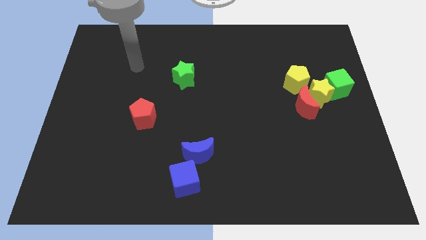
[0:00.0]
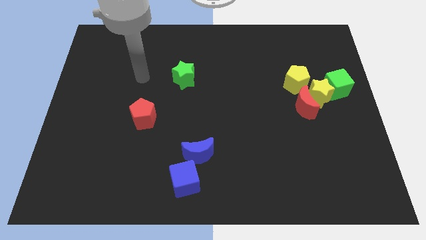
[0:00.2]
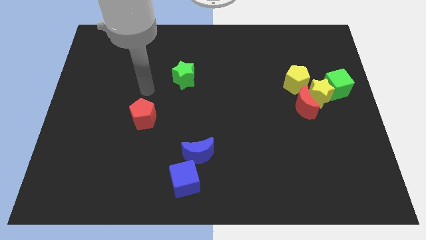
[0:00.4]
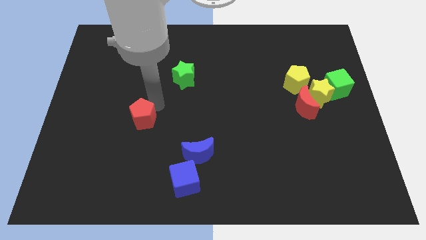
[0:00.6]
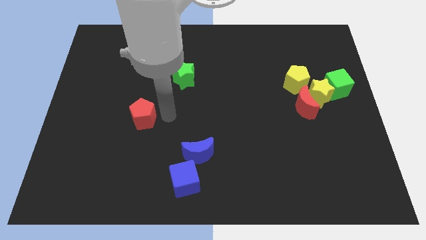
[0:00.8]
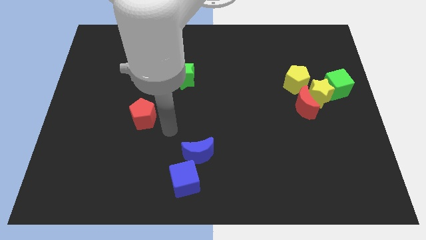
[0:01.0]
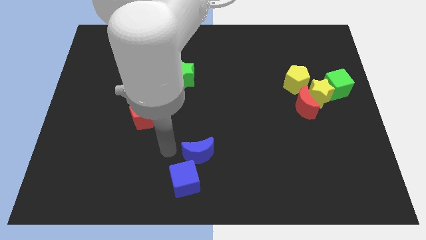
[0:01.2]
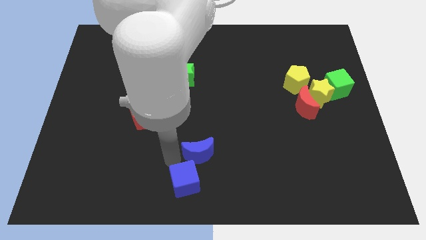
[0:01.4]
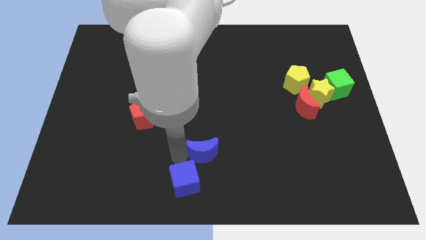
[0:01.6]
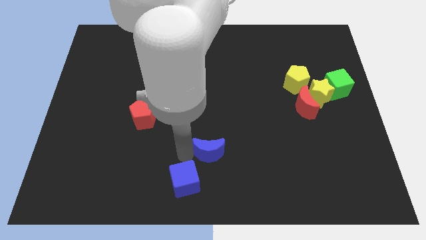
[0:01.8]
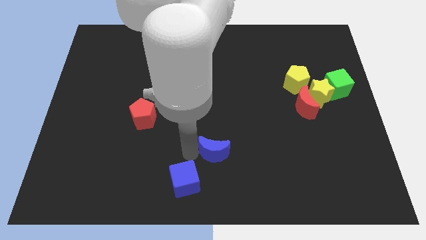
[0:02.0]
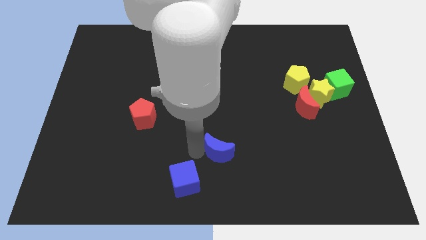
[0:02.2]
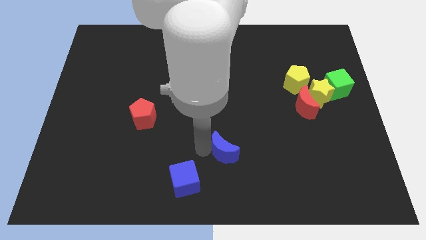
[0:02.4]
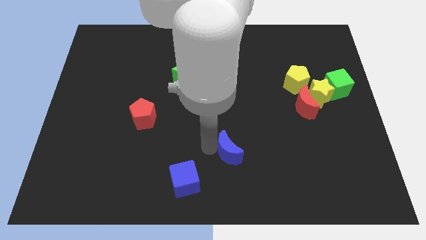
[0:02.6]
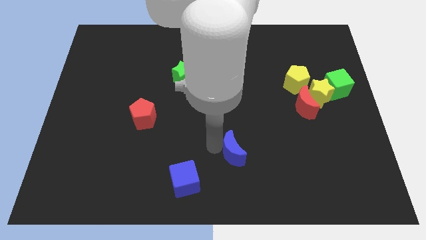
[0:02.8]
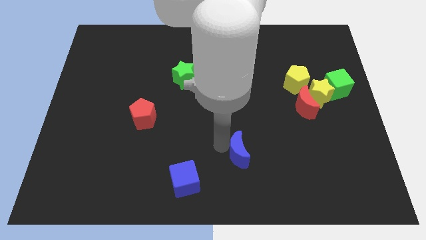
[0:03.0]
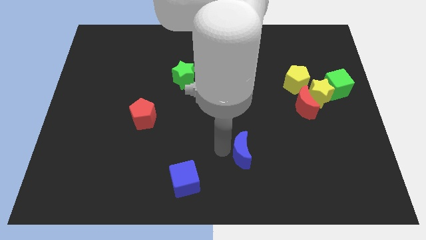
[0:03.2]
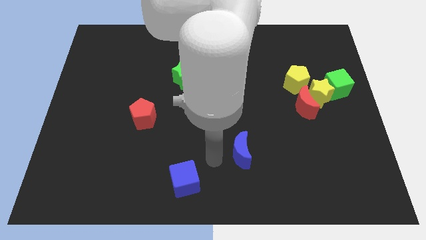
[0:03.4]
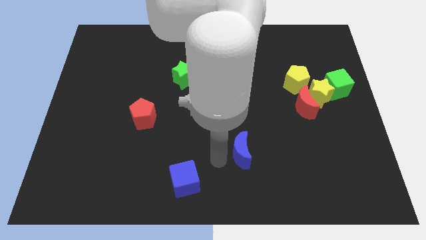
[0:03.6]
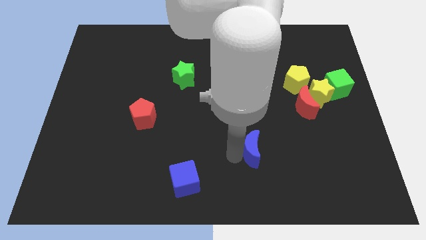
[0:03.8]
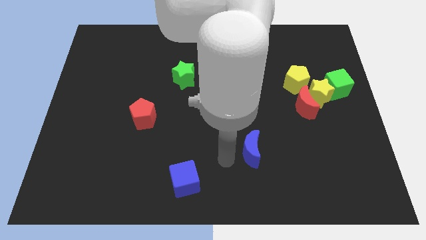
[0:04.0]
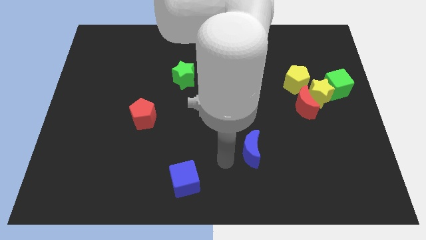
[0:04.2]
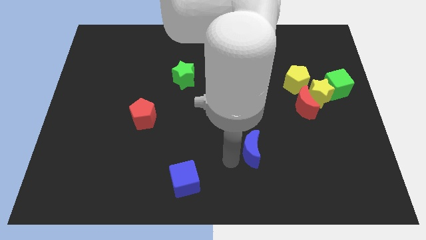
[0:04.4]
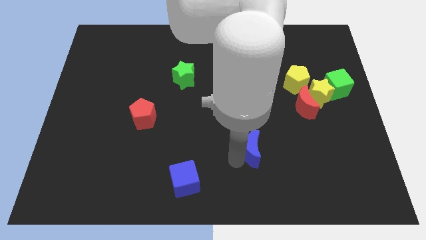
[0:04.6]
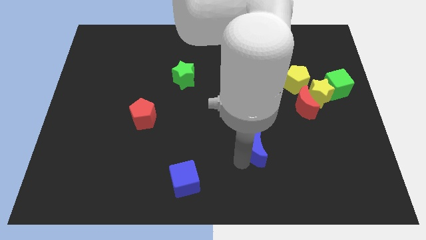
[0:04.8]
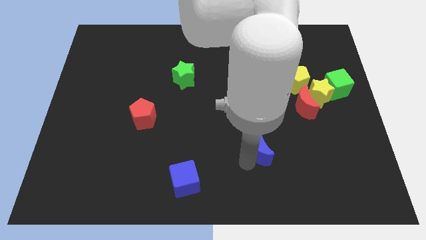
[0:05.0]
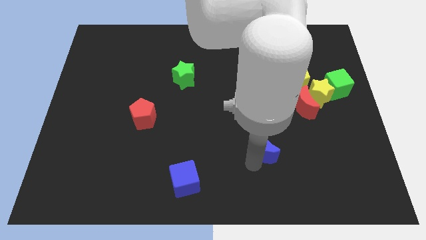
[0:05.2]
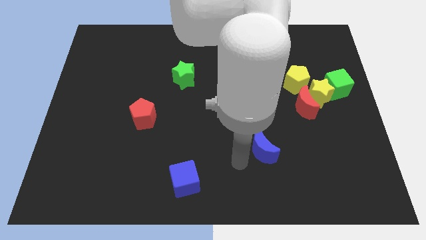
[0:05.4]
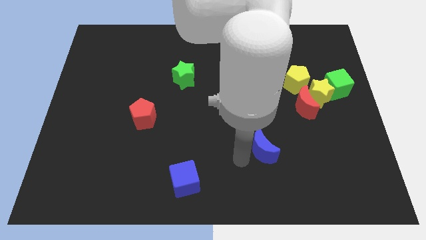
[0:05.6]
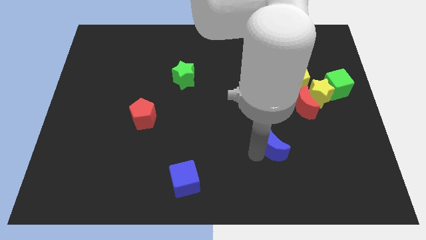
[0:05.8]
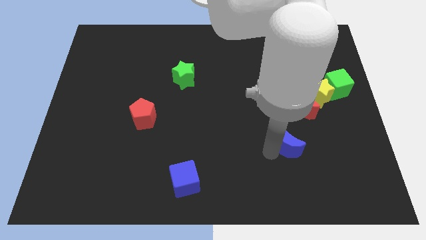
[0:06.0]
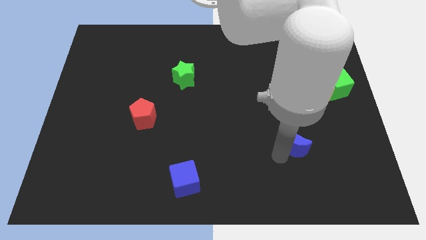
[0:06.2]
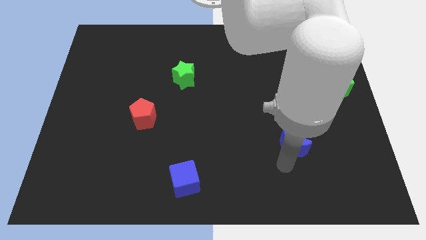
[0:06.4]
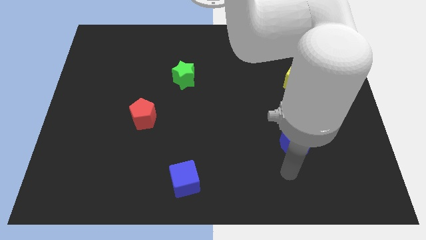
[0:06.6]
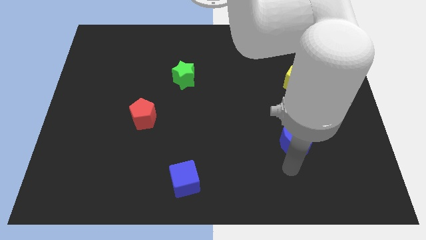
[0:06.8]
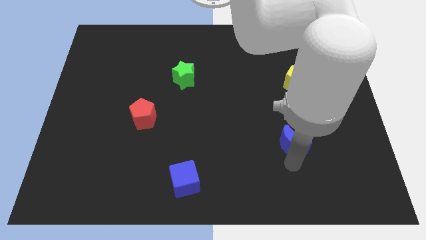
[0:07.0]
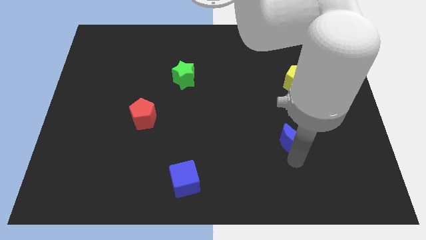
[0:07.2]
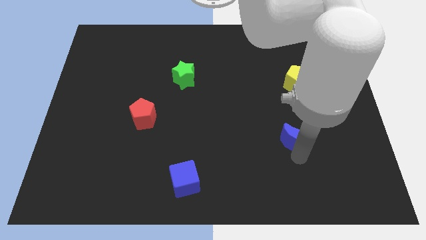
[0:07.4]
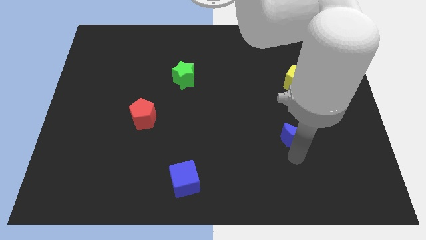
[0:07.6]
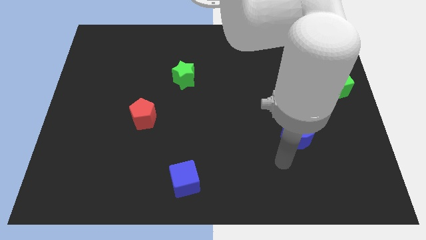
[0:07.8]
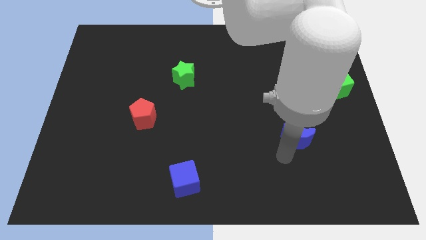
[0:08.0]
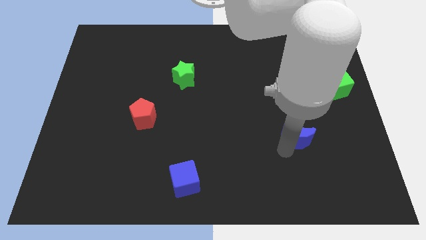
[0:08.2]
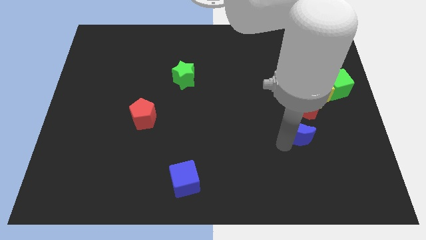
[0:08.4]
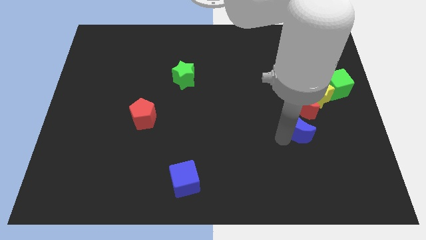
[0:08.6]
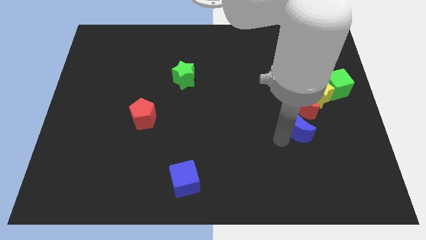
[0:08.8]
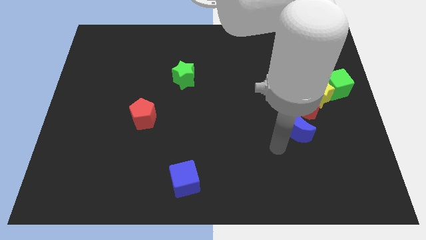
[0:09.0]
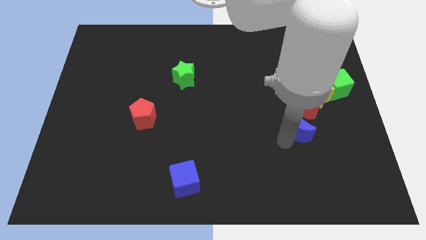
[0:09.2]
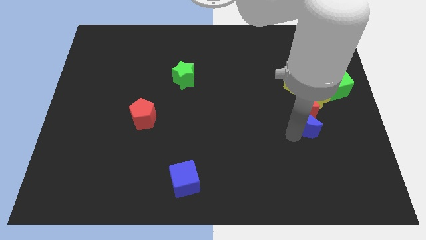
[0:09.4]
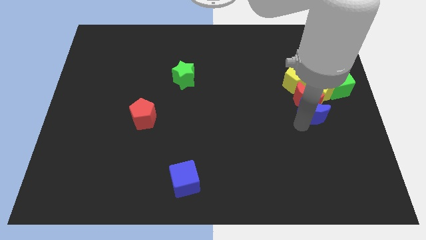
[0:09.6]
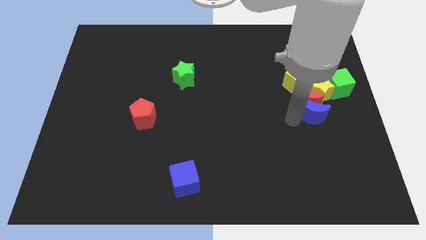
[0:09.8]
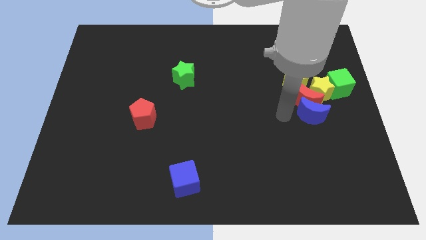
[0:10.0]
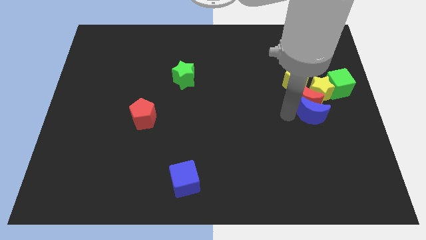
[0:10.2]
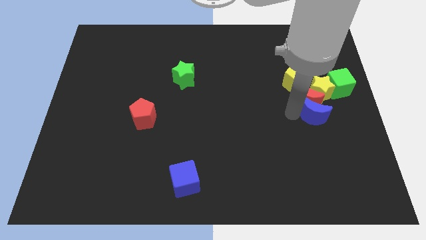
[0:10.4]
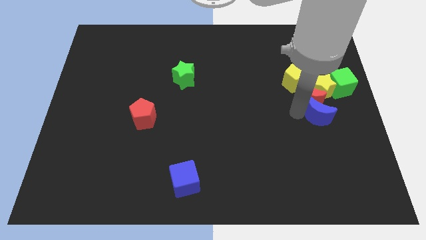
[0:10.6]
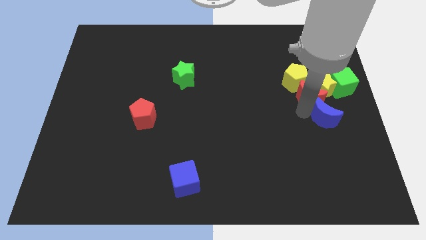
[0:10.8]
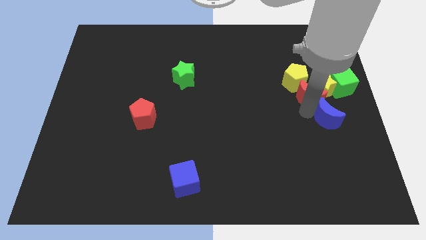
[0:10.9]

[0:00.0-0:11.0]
push the blue moon to the right side of the board

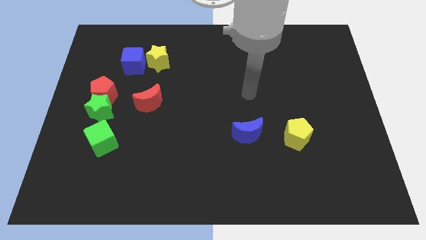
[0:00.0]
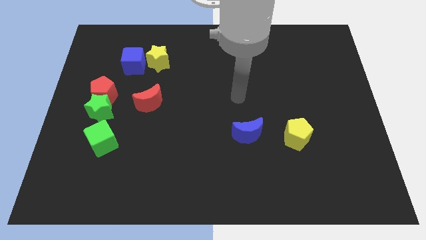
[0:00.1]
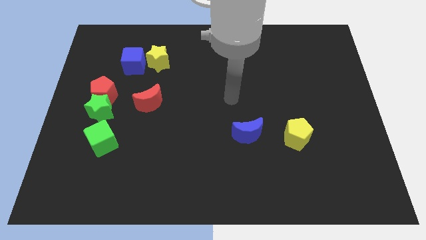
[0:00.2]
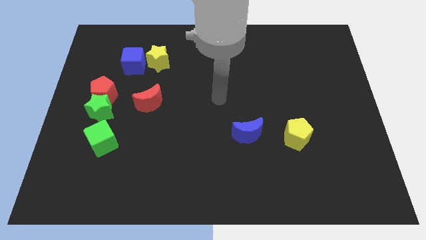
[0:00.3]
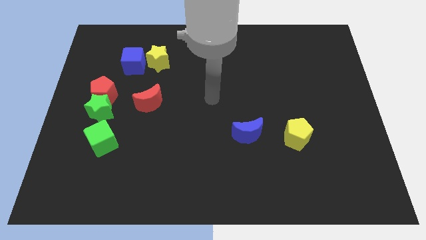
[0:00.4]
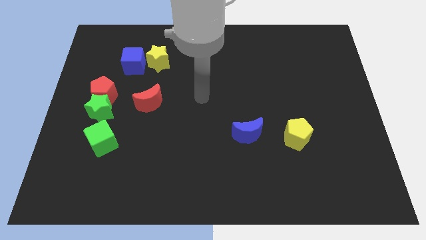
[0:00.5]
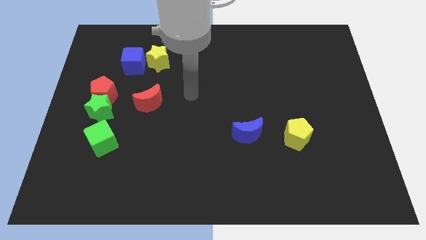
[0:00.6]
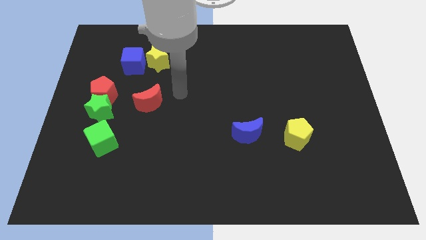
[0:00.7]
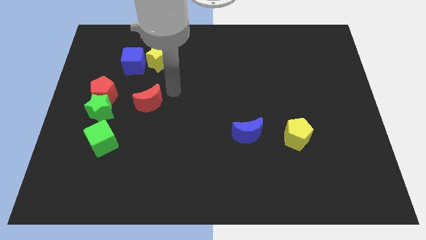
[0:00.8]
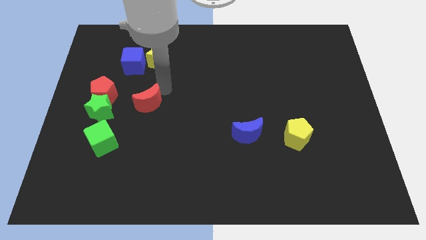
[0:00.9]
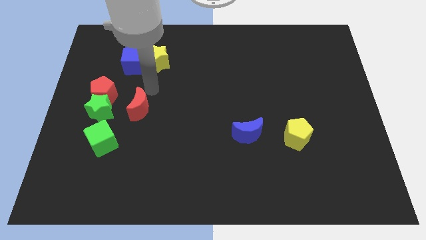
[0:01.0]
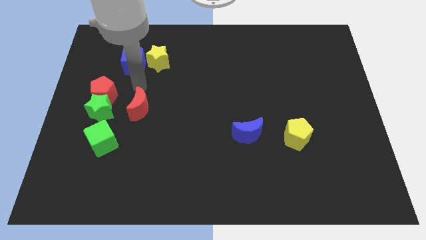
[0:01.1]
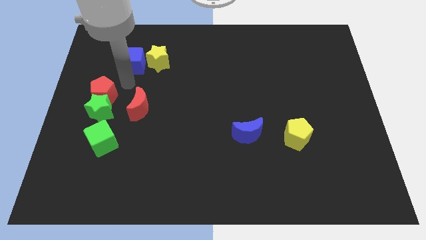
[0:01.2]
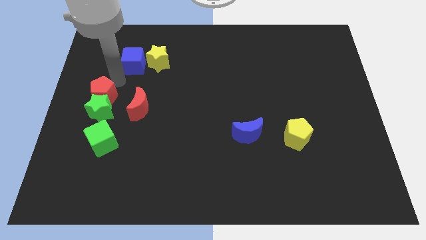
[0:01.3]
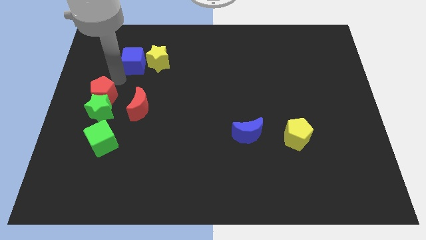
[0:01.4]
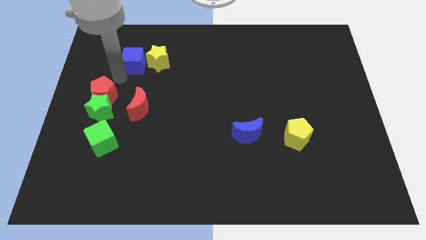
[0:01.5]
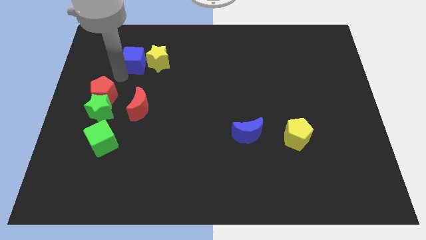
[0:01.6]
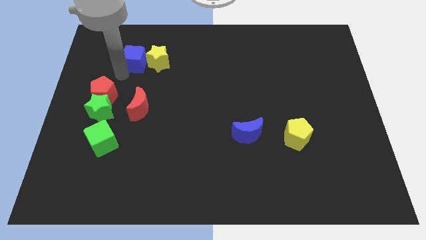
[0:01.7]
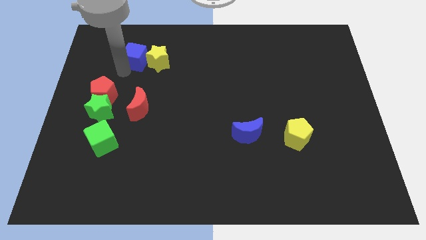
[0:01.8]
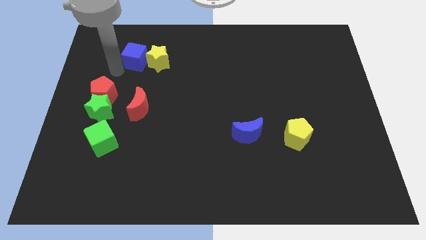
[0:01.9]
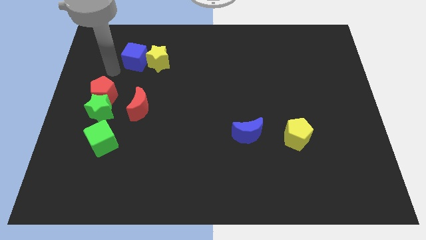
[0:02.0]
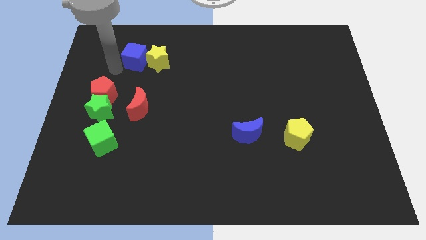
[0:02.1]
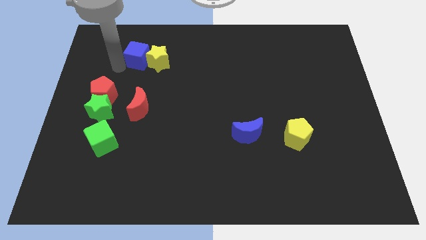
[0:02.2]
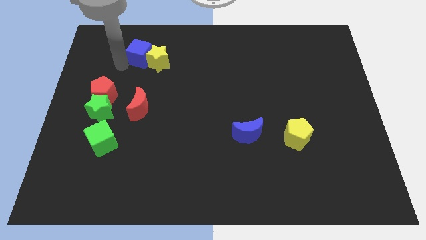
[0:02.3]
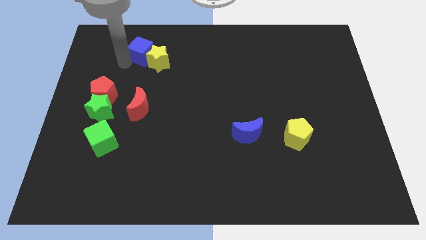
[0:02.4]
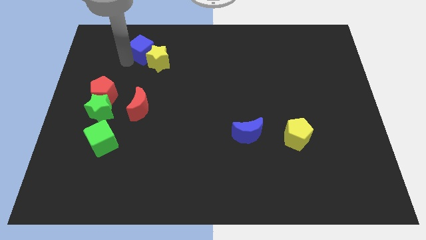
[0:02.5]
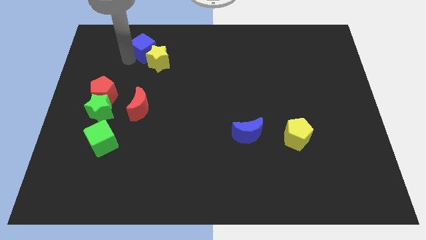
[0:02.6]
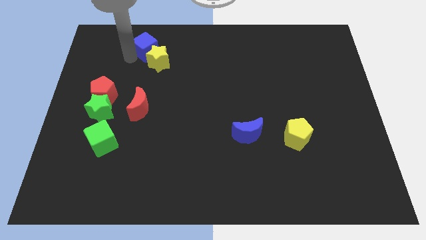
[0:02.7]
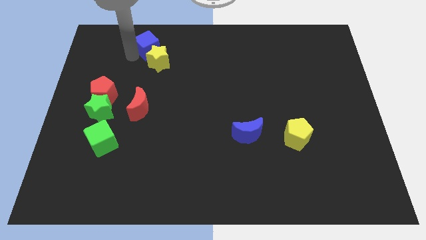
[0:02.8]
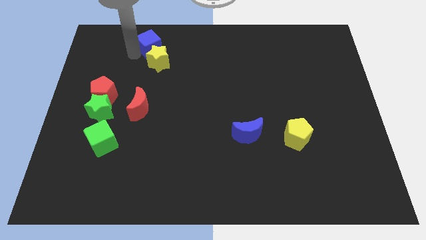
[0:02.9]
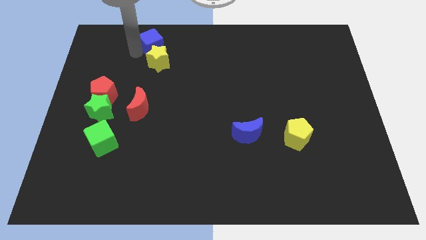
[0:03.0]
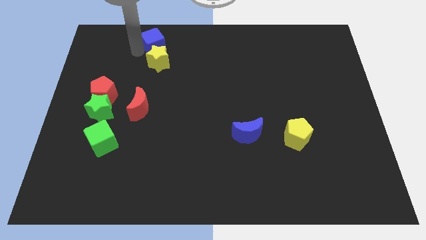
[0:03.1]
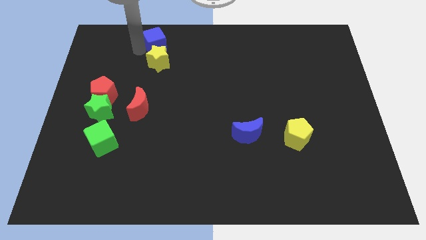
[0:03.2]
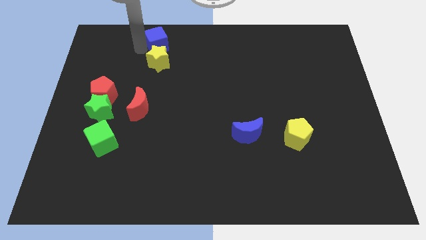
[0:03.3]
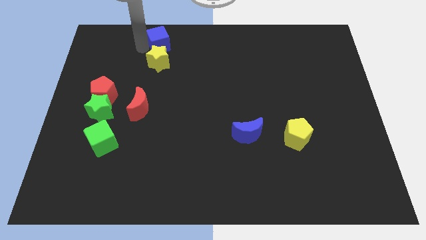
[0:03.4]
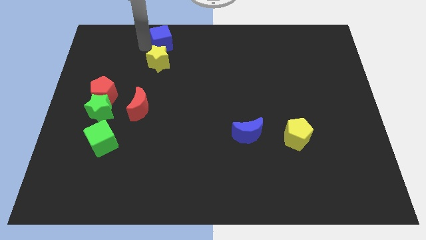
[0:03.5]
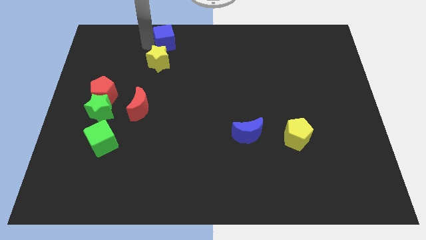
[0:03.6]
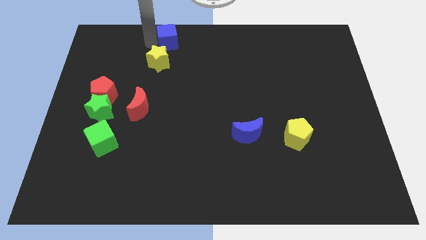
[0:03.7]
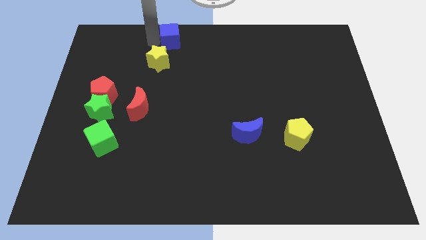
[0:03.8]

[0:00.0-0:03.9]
put the blue cube to the top side
